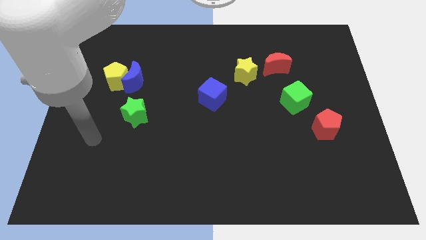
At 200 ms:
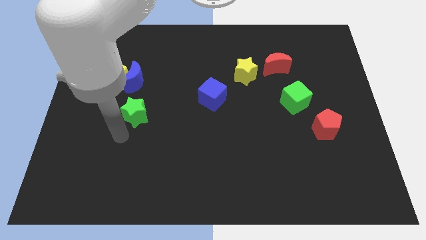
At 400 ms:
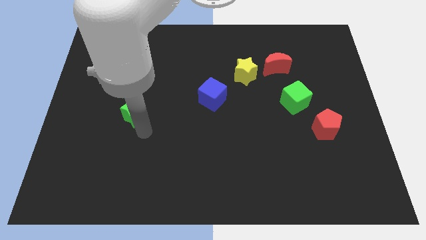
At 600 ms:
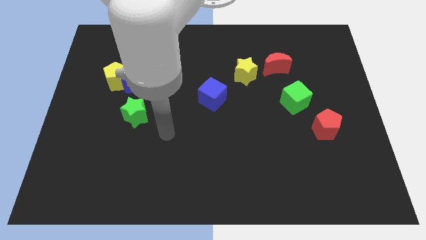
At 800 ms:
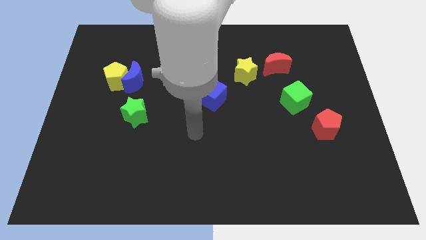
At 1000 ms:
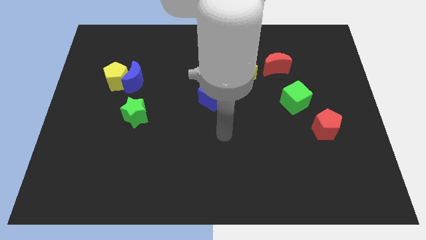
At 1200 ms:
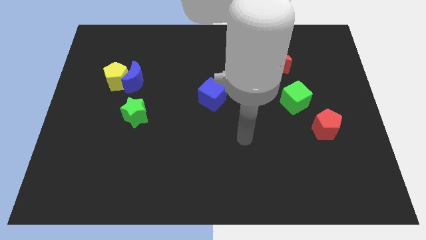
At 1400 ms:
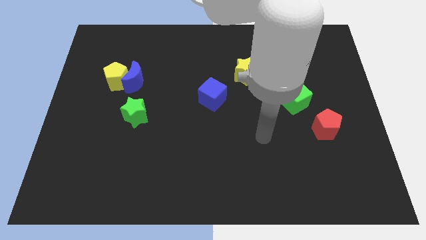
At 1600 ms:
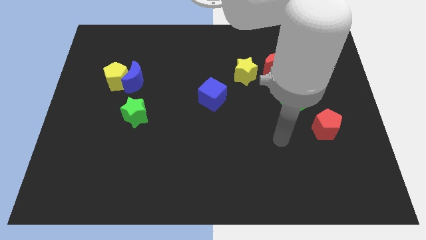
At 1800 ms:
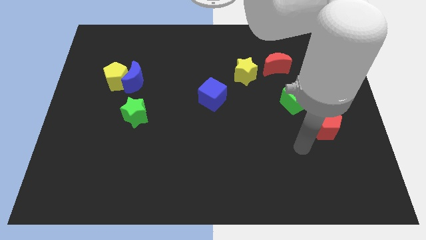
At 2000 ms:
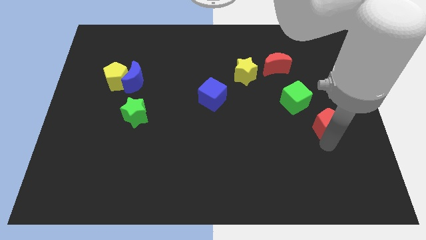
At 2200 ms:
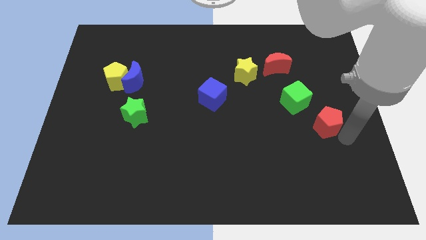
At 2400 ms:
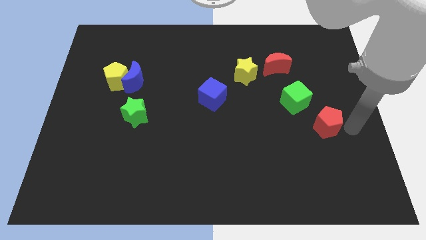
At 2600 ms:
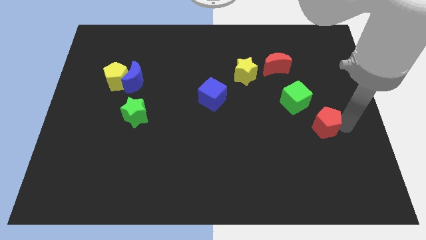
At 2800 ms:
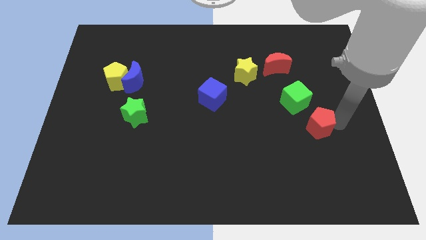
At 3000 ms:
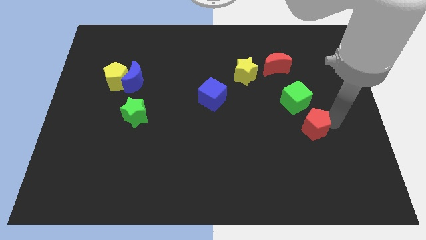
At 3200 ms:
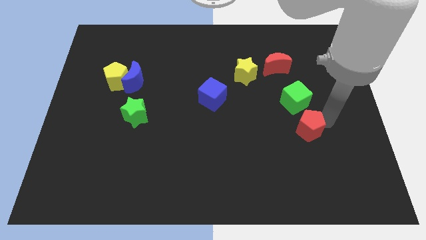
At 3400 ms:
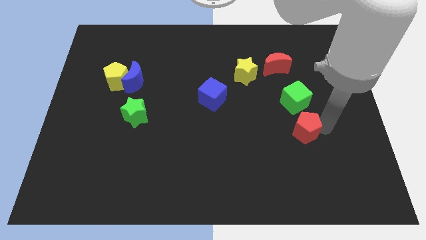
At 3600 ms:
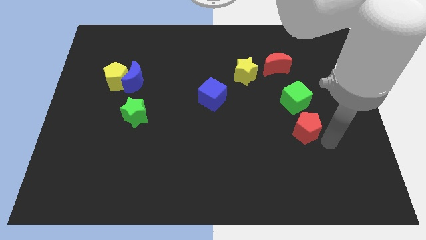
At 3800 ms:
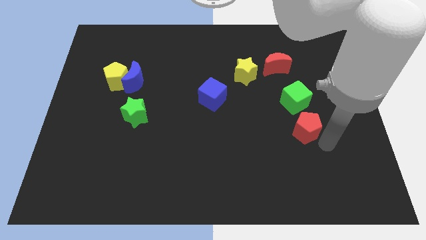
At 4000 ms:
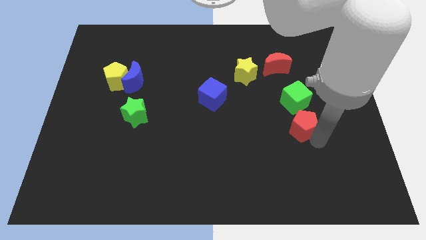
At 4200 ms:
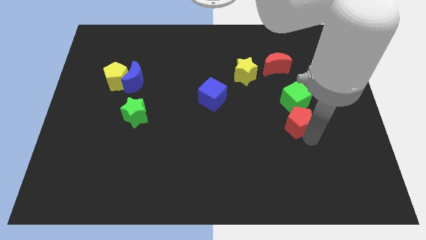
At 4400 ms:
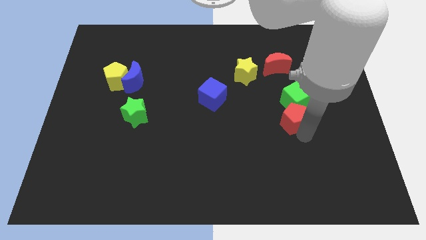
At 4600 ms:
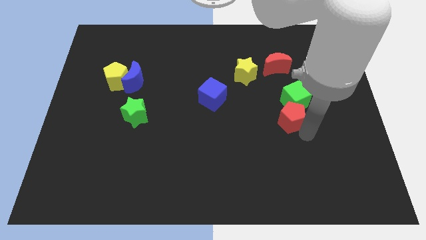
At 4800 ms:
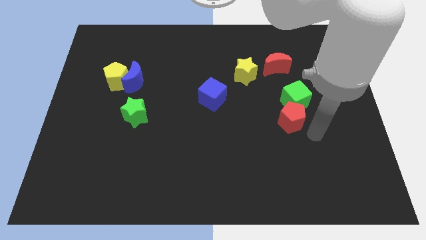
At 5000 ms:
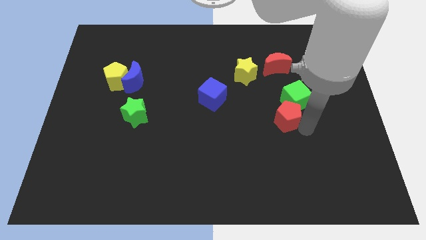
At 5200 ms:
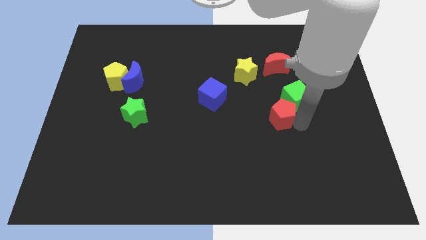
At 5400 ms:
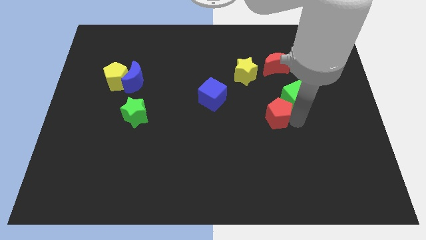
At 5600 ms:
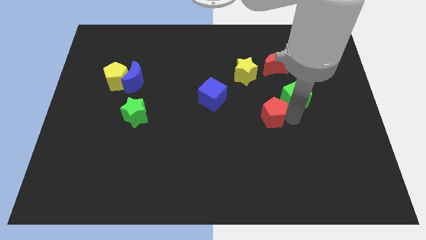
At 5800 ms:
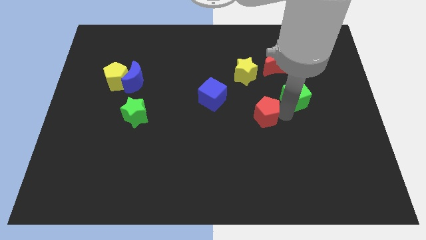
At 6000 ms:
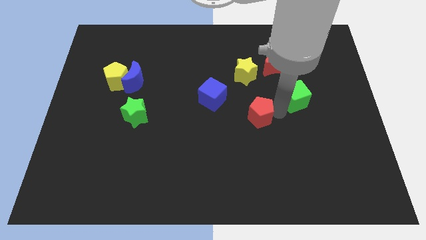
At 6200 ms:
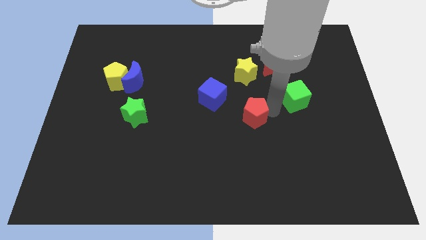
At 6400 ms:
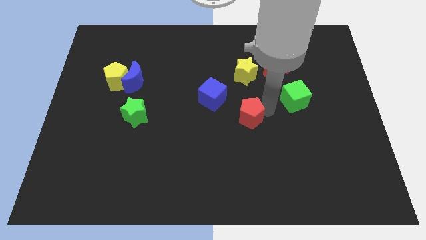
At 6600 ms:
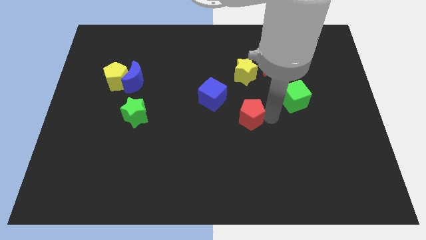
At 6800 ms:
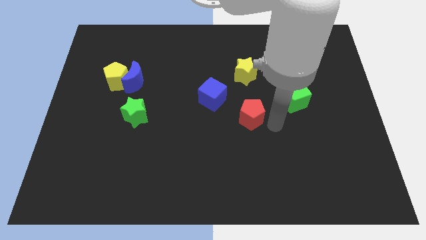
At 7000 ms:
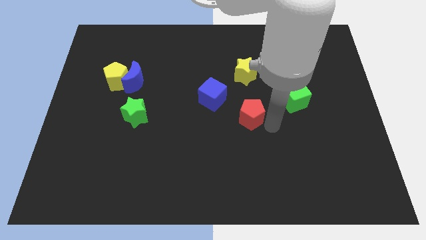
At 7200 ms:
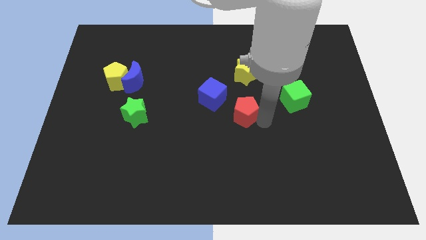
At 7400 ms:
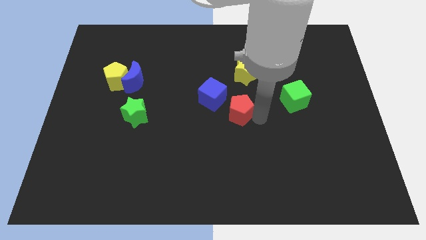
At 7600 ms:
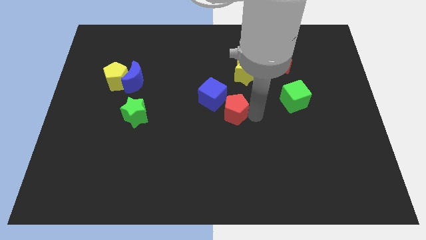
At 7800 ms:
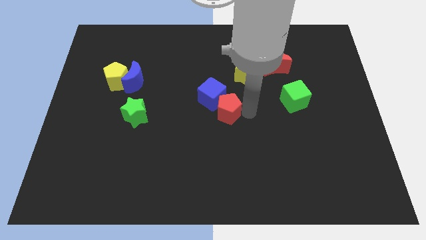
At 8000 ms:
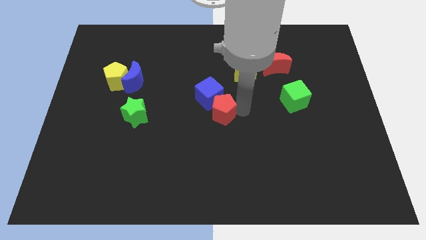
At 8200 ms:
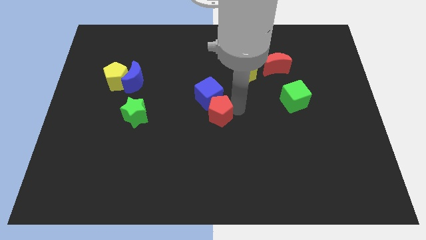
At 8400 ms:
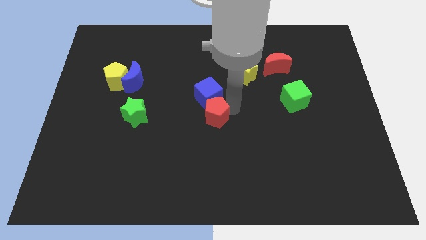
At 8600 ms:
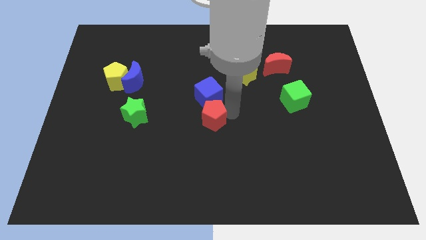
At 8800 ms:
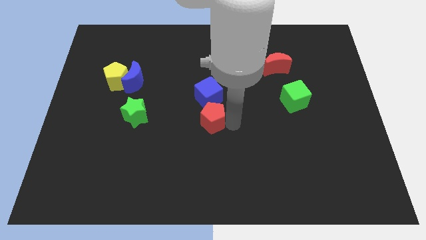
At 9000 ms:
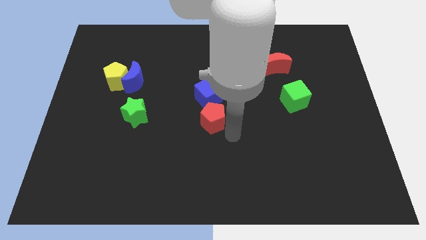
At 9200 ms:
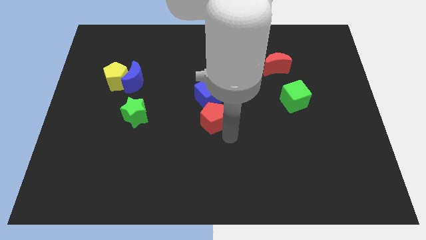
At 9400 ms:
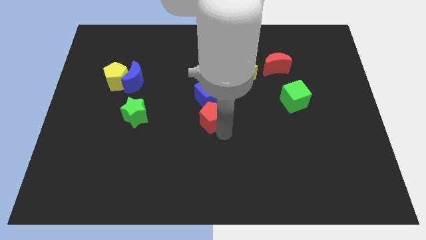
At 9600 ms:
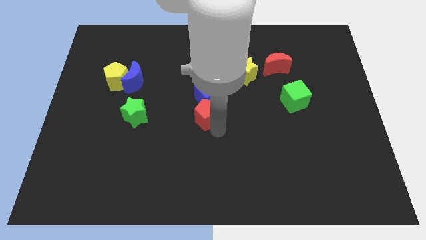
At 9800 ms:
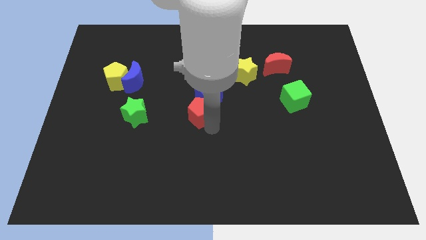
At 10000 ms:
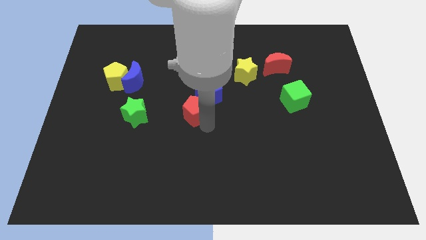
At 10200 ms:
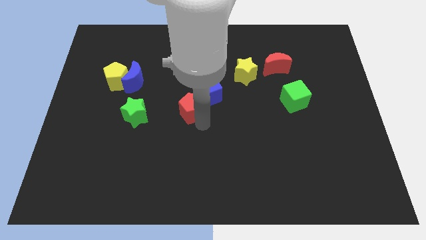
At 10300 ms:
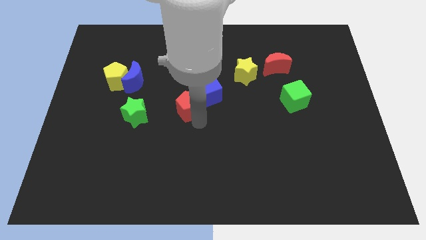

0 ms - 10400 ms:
move the red pentagon just left of the blue cube

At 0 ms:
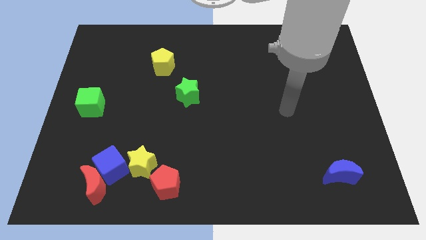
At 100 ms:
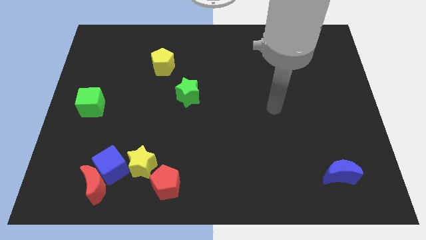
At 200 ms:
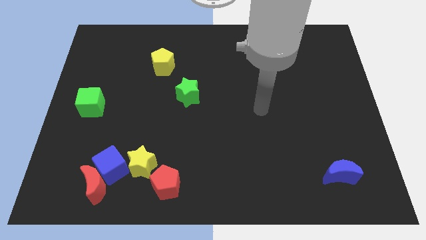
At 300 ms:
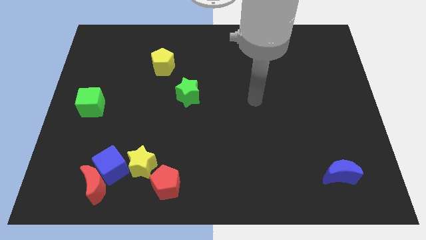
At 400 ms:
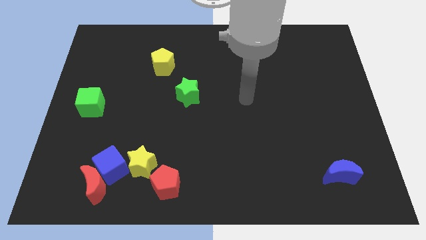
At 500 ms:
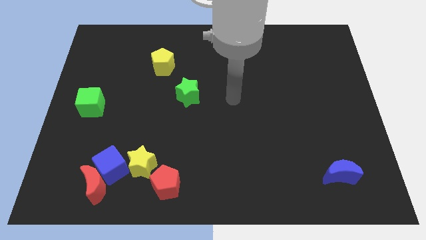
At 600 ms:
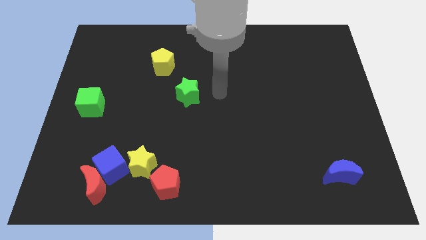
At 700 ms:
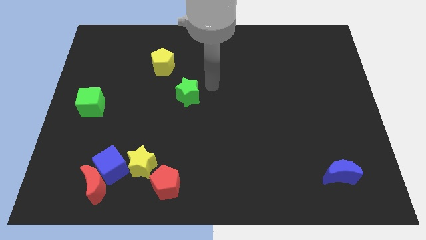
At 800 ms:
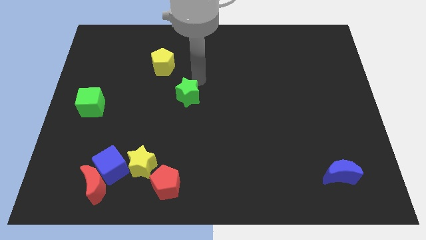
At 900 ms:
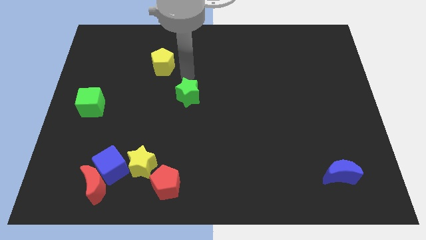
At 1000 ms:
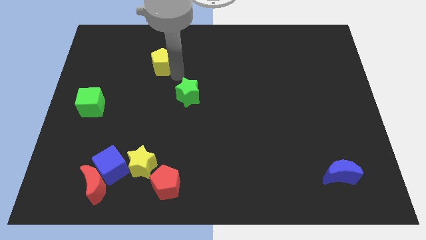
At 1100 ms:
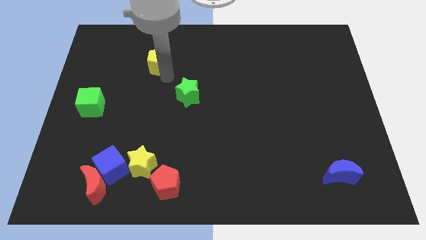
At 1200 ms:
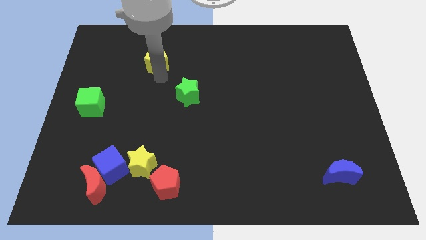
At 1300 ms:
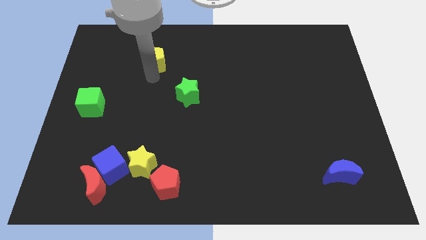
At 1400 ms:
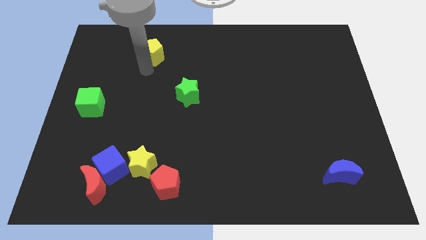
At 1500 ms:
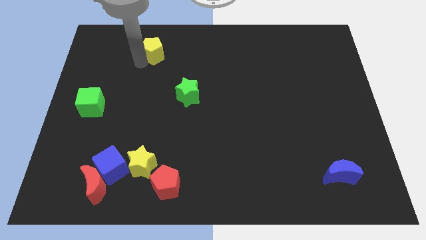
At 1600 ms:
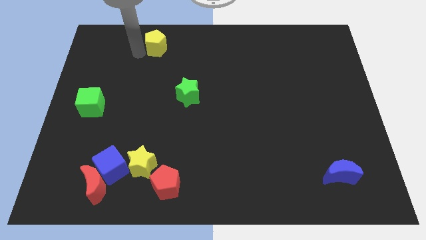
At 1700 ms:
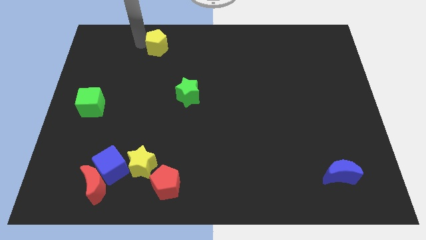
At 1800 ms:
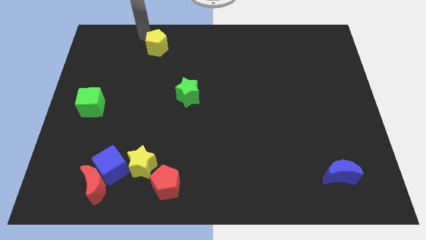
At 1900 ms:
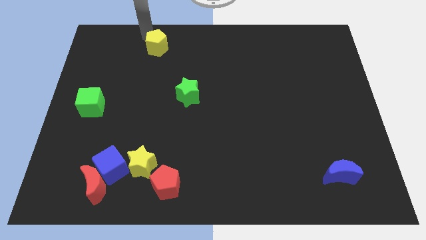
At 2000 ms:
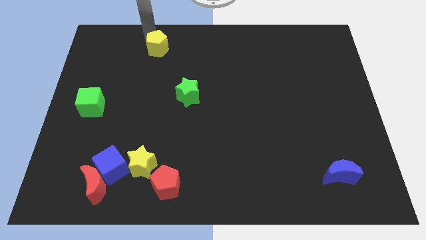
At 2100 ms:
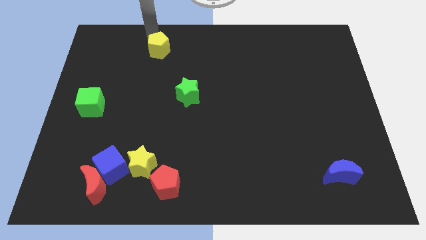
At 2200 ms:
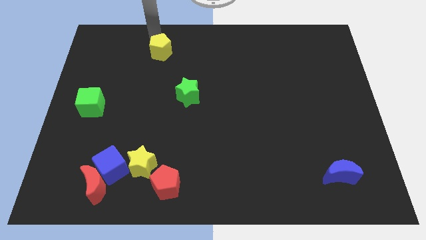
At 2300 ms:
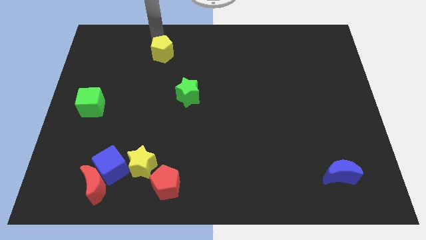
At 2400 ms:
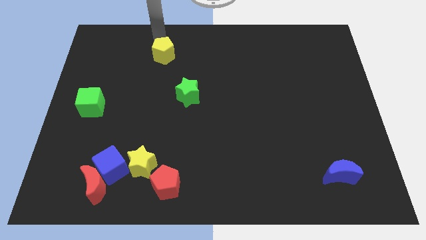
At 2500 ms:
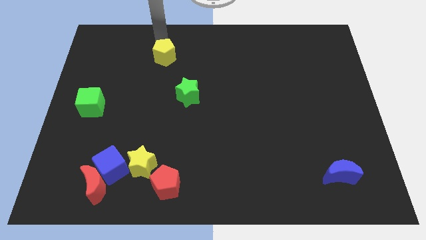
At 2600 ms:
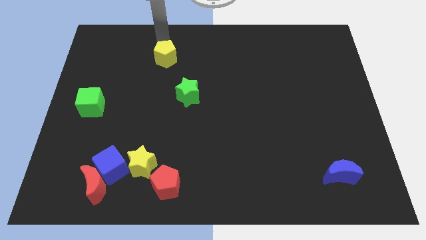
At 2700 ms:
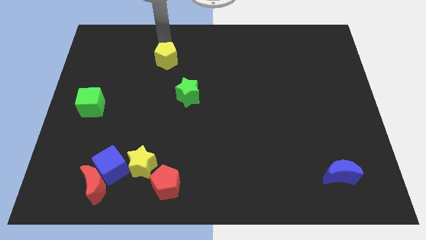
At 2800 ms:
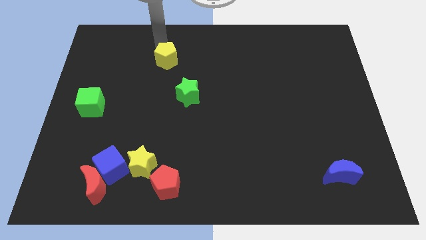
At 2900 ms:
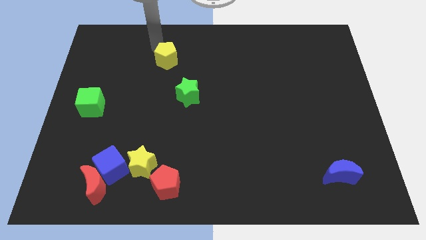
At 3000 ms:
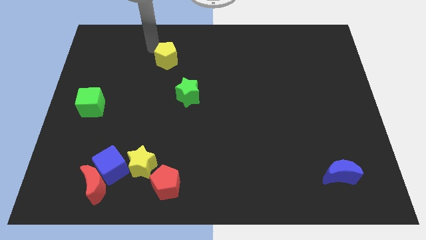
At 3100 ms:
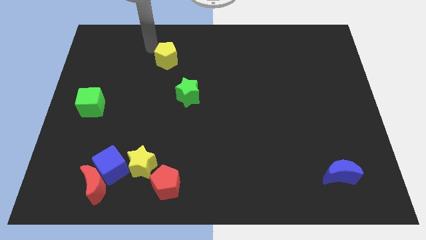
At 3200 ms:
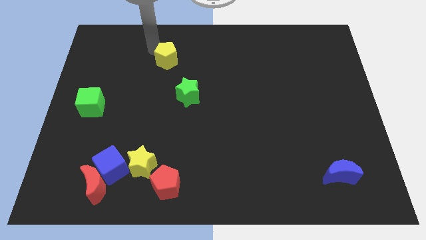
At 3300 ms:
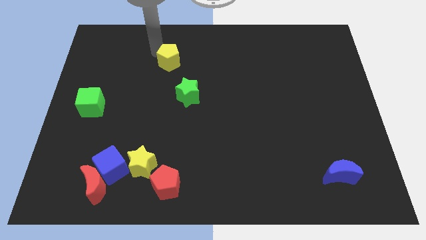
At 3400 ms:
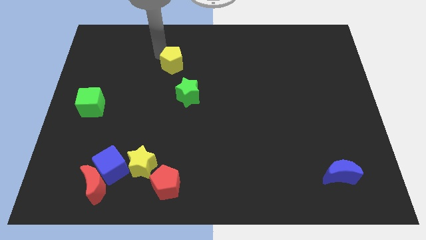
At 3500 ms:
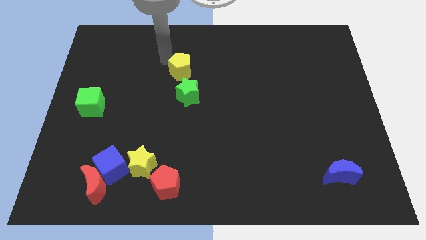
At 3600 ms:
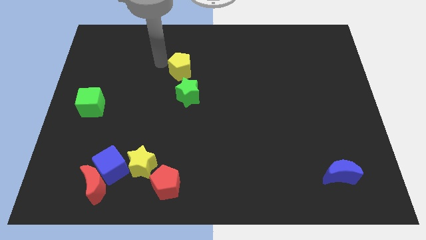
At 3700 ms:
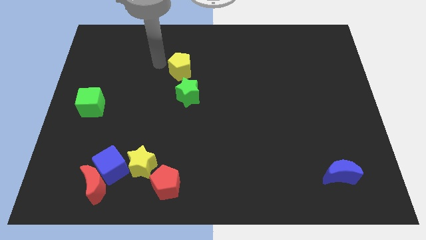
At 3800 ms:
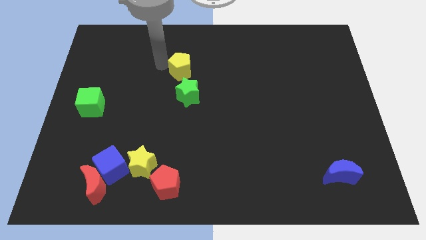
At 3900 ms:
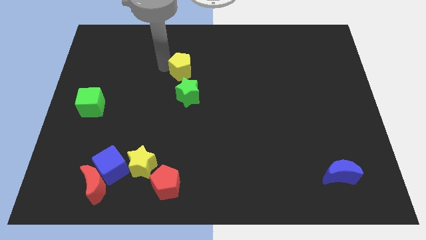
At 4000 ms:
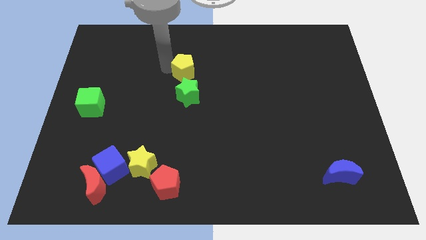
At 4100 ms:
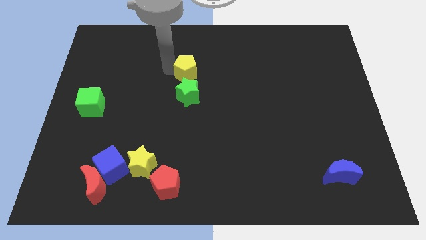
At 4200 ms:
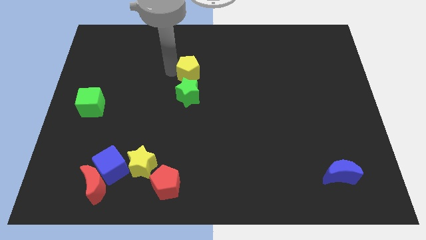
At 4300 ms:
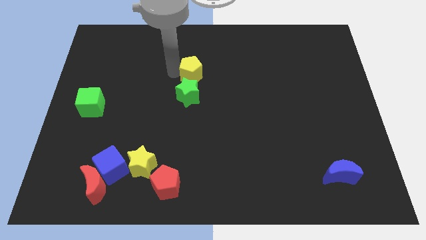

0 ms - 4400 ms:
move the yellow pentagon to the top right of the green star
